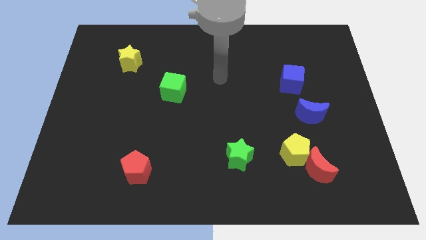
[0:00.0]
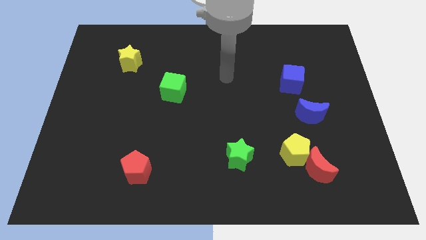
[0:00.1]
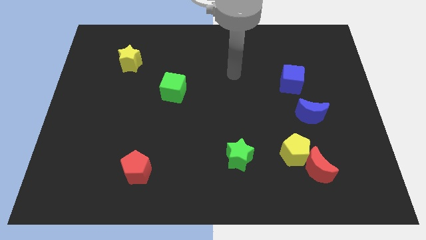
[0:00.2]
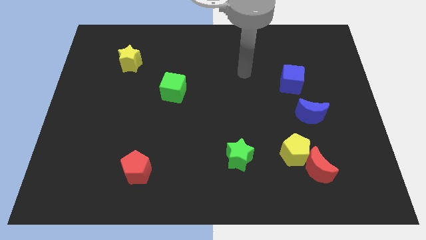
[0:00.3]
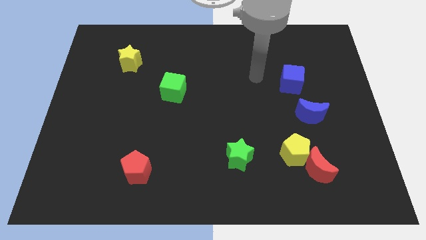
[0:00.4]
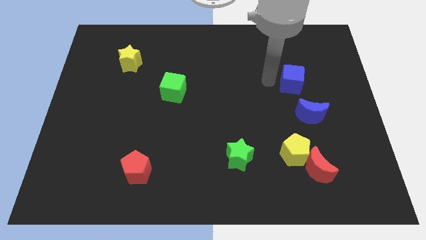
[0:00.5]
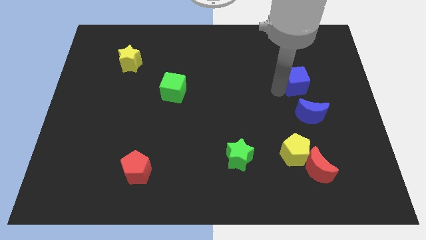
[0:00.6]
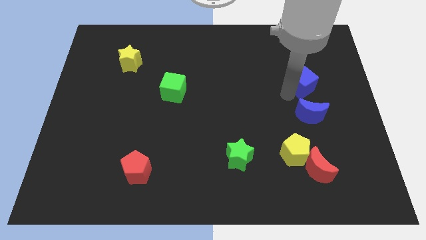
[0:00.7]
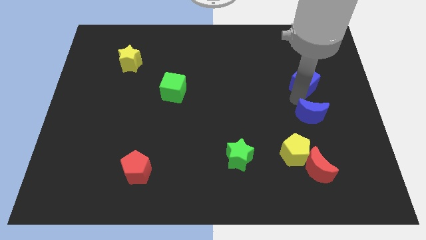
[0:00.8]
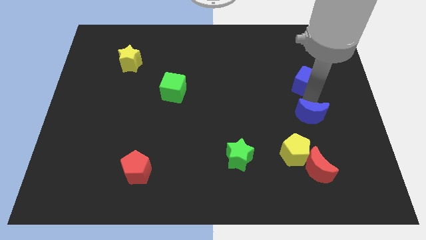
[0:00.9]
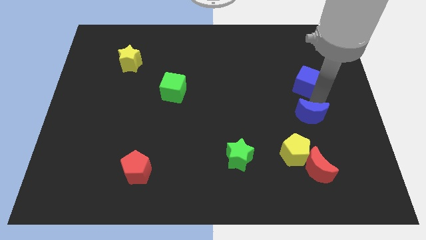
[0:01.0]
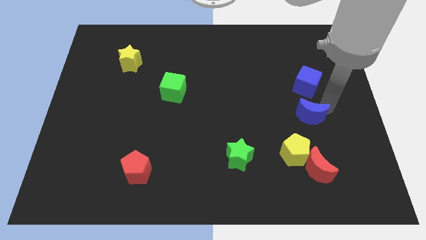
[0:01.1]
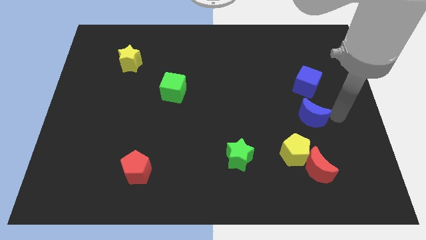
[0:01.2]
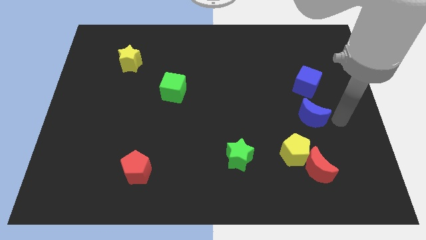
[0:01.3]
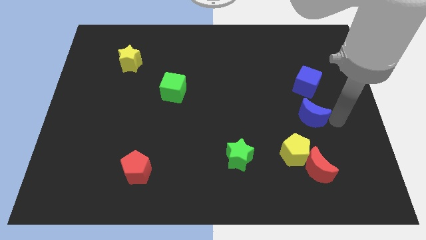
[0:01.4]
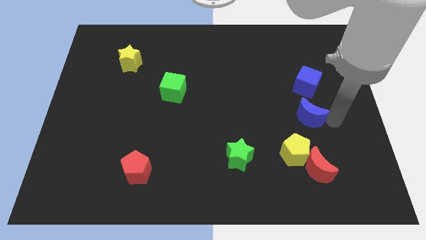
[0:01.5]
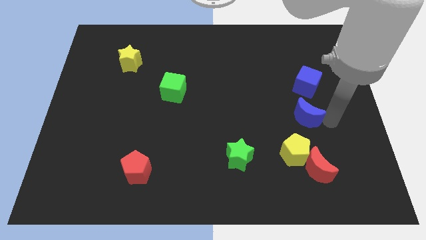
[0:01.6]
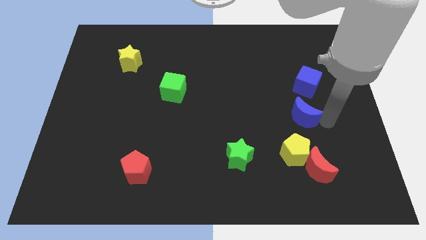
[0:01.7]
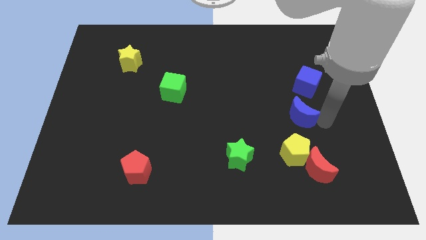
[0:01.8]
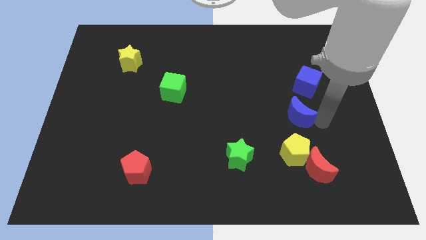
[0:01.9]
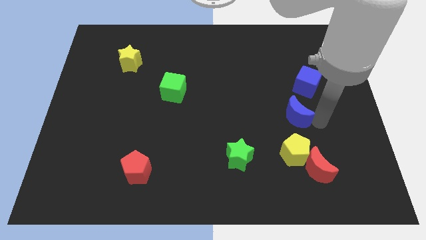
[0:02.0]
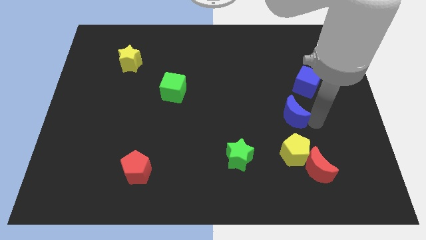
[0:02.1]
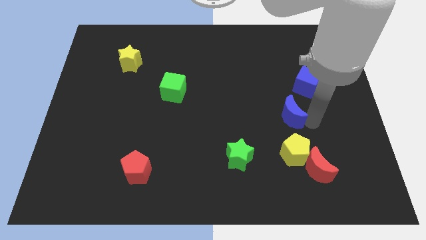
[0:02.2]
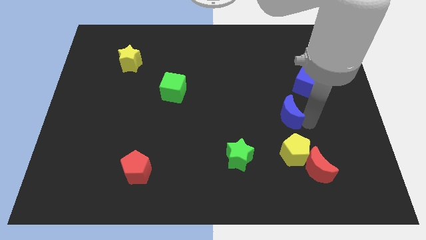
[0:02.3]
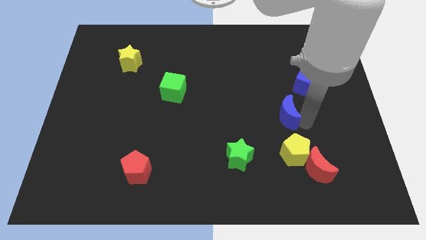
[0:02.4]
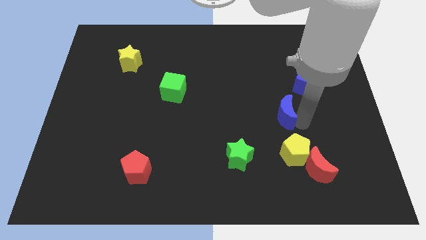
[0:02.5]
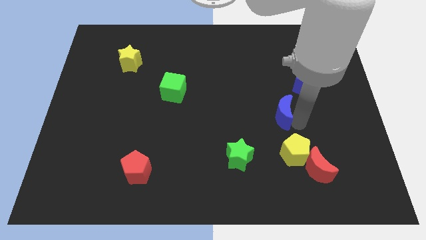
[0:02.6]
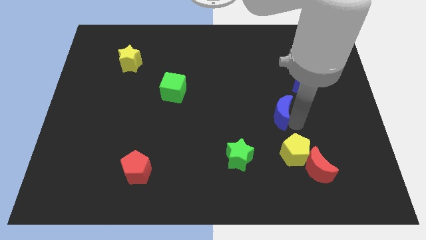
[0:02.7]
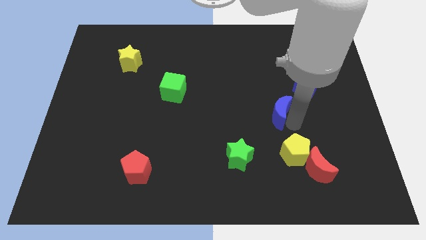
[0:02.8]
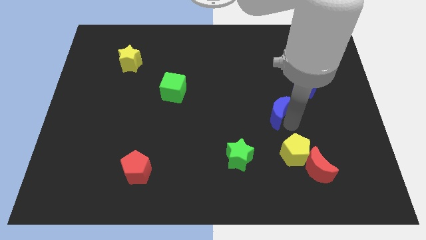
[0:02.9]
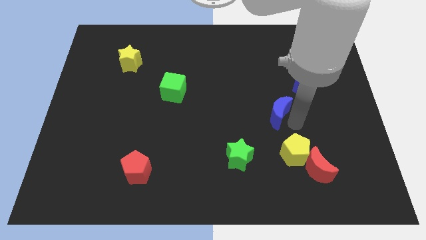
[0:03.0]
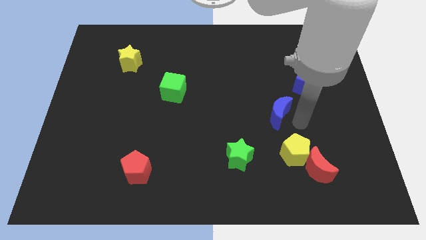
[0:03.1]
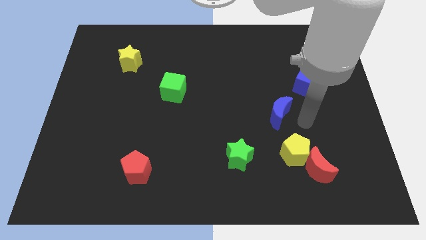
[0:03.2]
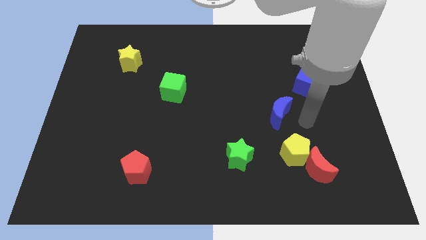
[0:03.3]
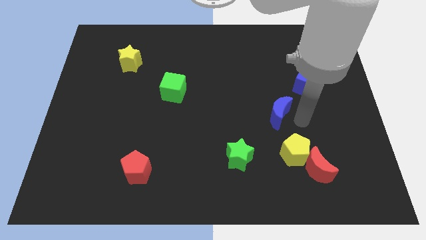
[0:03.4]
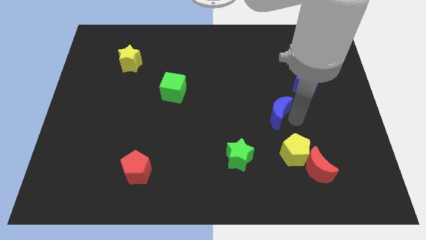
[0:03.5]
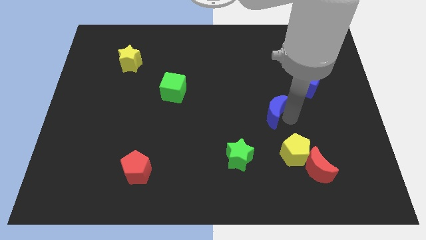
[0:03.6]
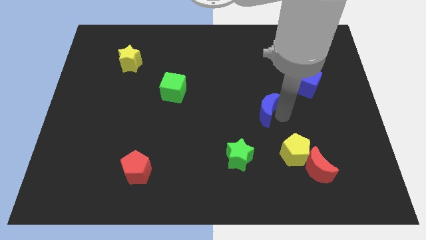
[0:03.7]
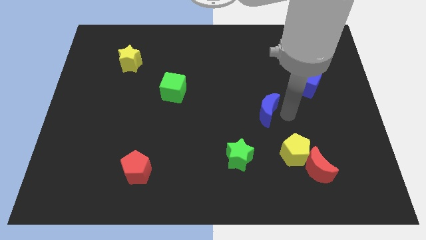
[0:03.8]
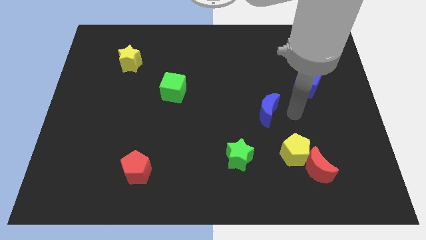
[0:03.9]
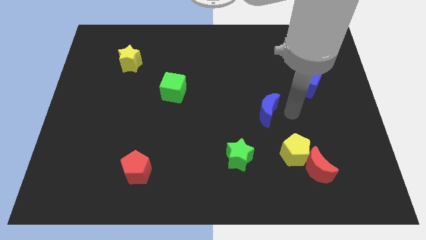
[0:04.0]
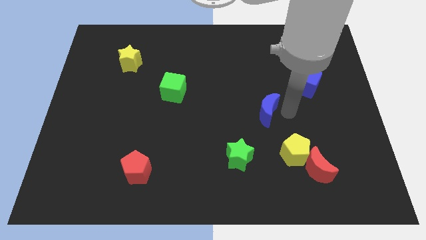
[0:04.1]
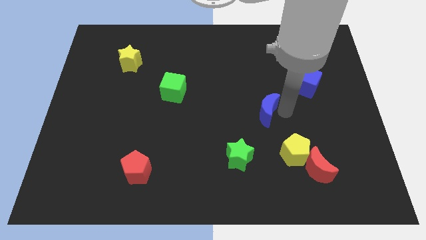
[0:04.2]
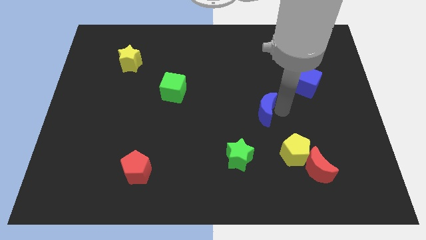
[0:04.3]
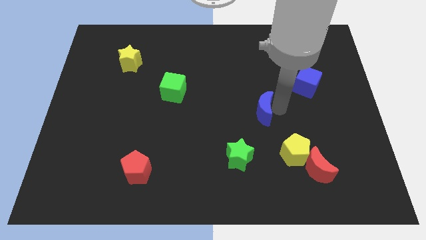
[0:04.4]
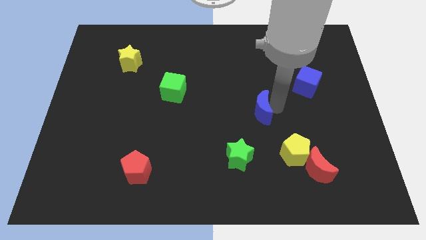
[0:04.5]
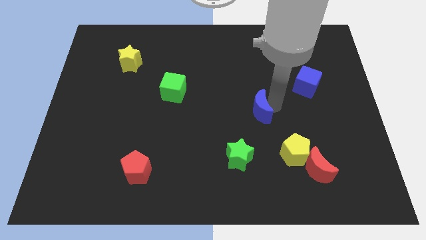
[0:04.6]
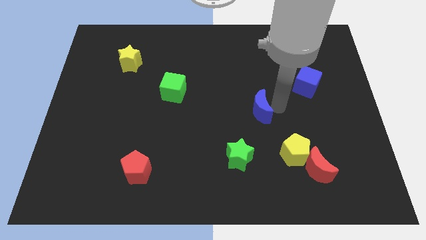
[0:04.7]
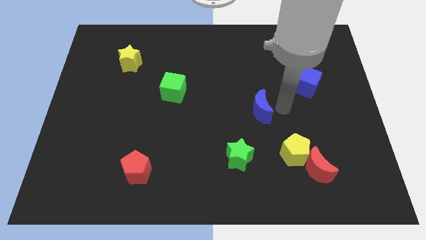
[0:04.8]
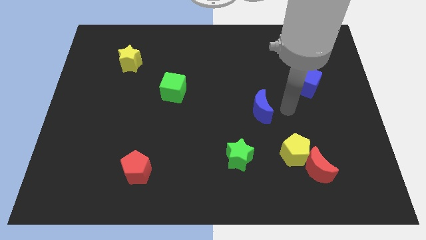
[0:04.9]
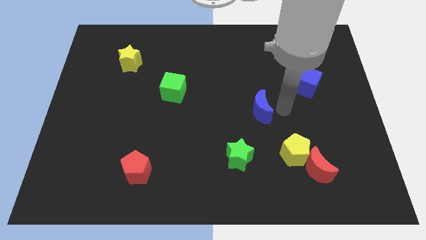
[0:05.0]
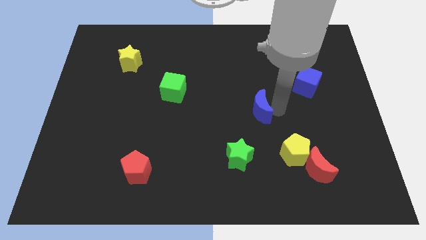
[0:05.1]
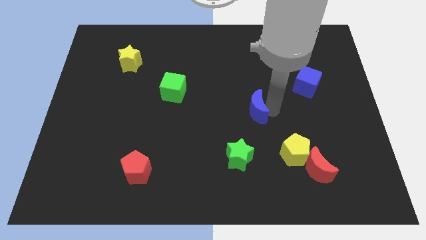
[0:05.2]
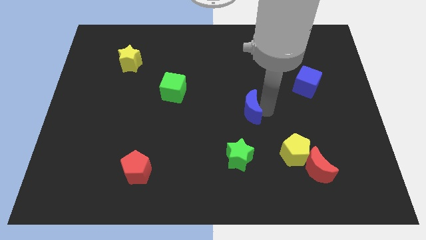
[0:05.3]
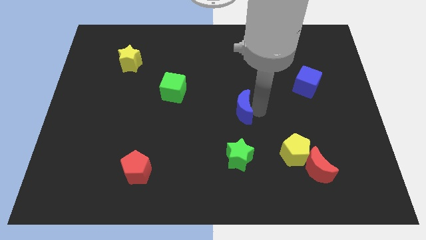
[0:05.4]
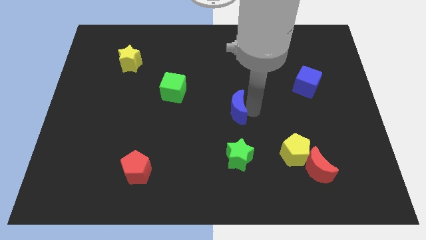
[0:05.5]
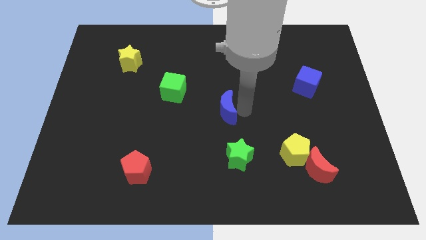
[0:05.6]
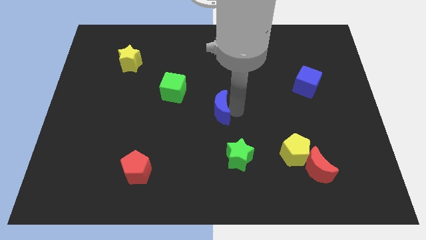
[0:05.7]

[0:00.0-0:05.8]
push the blue moon left

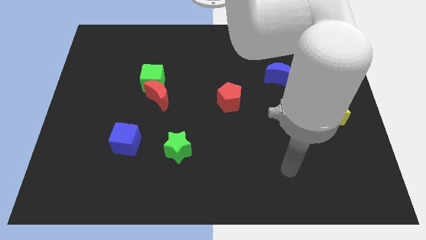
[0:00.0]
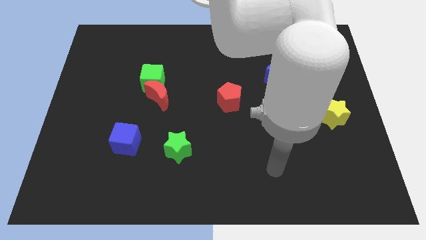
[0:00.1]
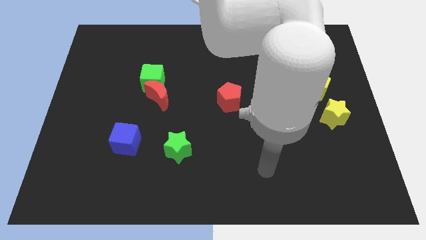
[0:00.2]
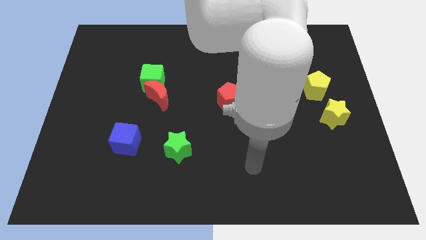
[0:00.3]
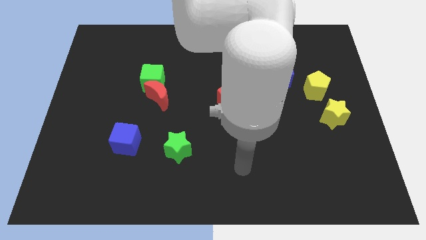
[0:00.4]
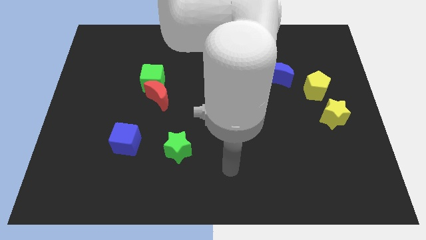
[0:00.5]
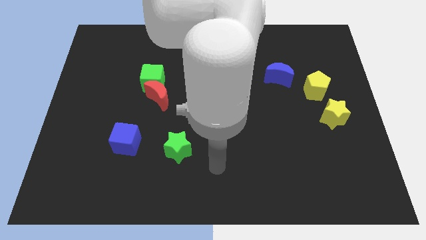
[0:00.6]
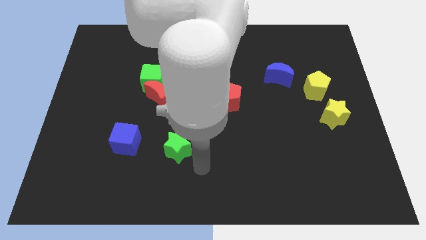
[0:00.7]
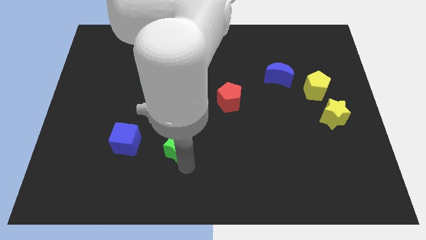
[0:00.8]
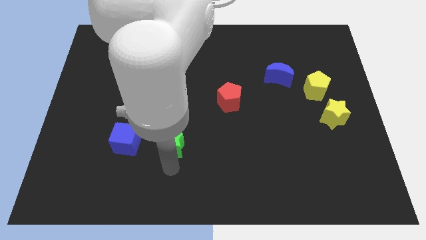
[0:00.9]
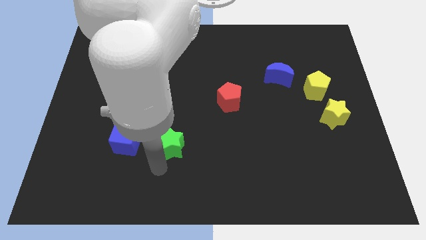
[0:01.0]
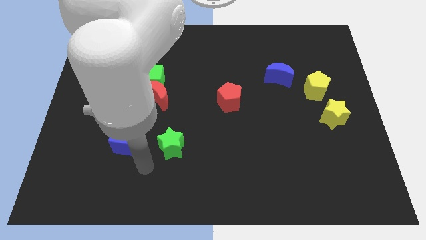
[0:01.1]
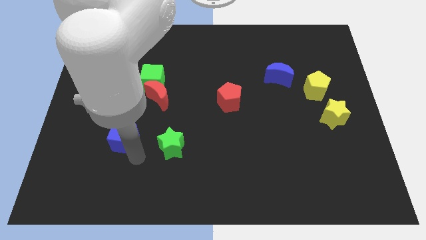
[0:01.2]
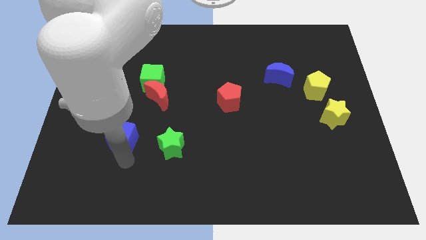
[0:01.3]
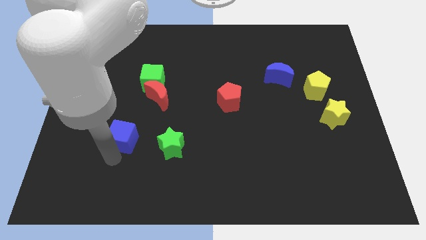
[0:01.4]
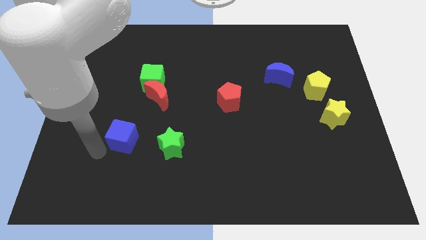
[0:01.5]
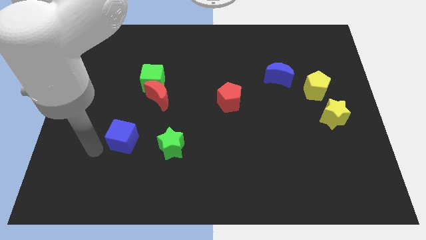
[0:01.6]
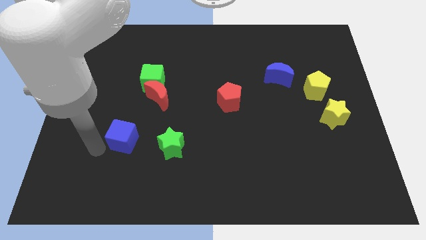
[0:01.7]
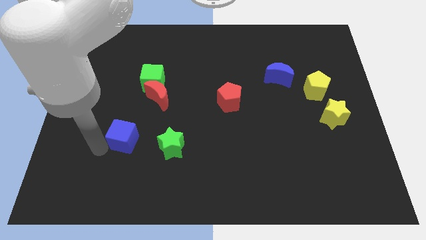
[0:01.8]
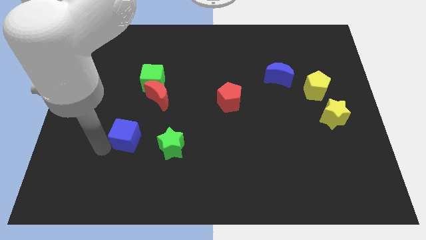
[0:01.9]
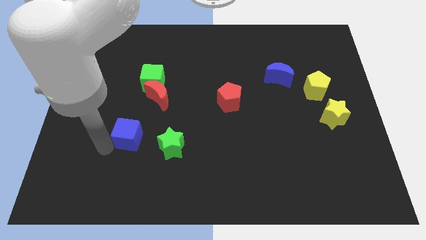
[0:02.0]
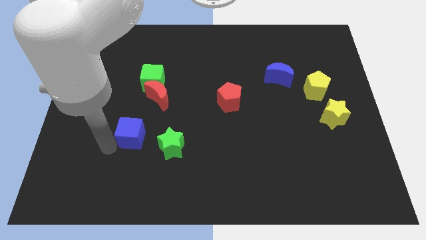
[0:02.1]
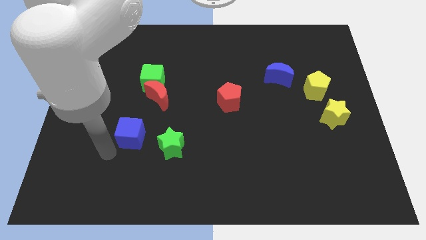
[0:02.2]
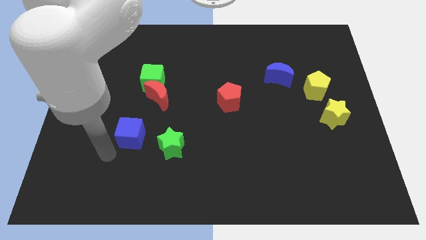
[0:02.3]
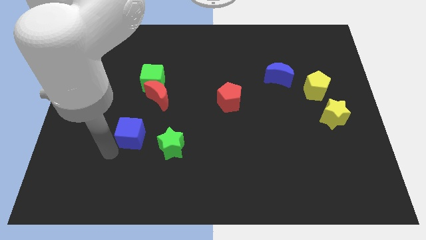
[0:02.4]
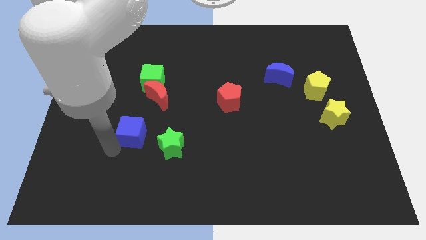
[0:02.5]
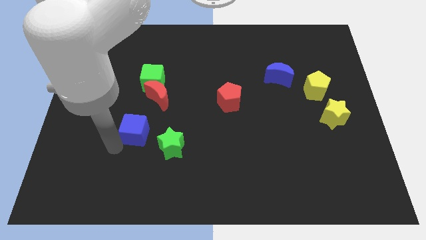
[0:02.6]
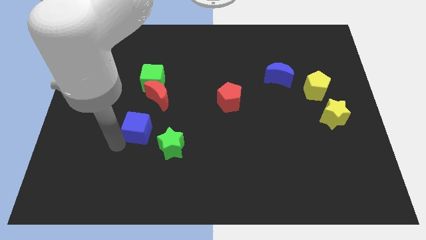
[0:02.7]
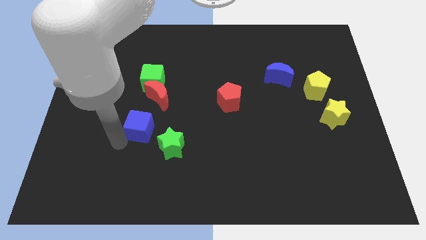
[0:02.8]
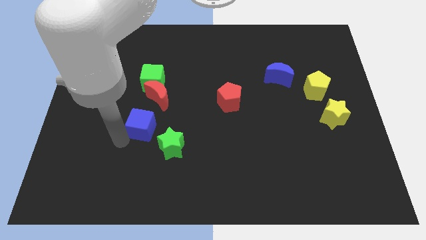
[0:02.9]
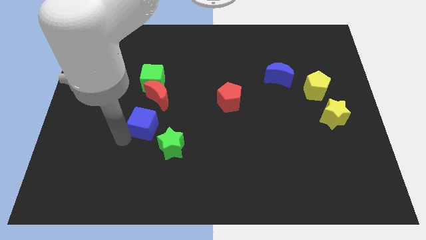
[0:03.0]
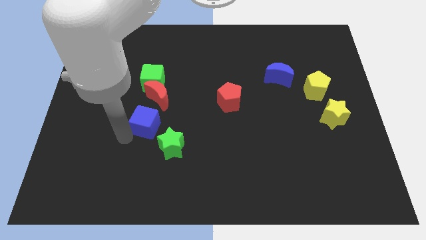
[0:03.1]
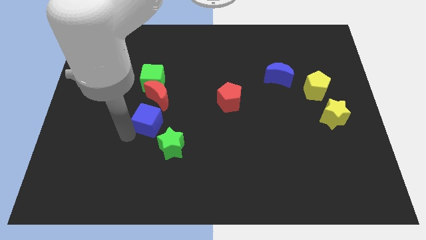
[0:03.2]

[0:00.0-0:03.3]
push the blue cube somewhat diagonally up and right
